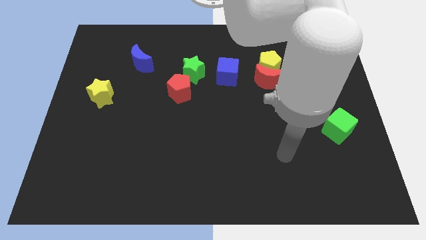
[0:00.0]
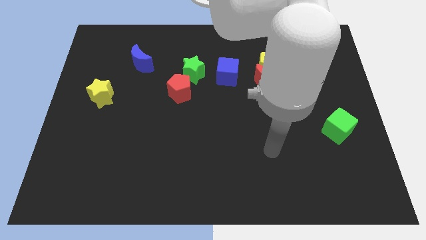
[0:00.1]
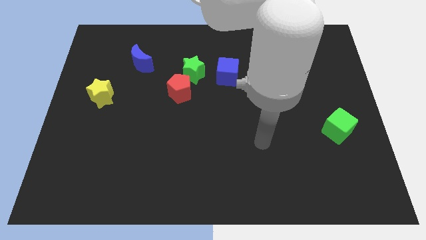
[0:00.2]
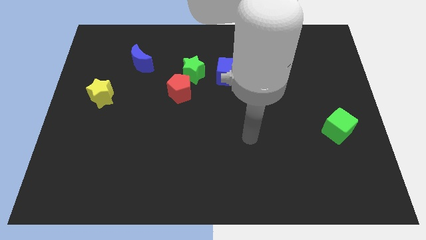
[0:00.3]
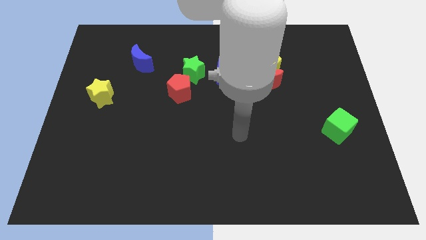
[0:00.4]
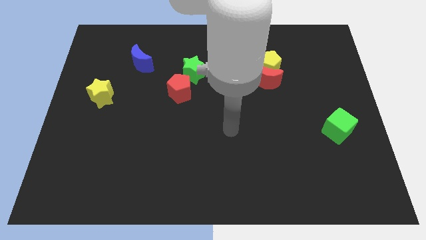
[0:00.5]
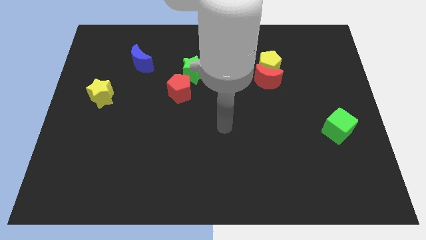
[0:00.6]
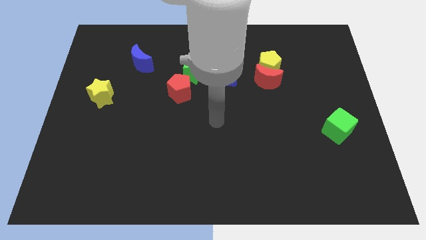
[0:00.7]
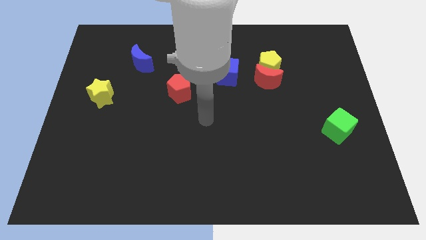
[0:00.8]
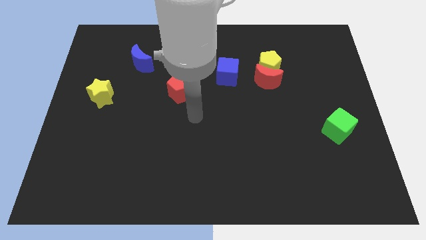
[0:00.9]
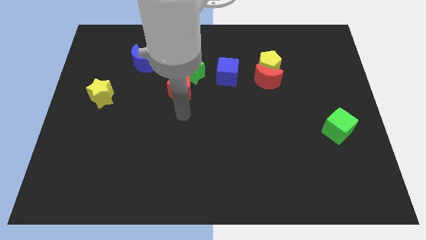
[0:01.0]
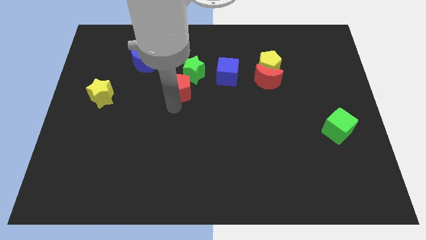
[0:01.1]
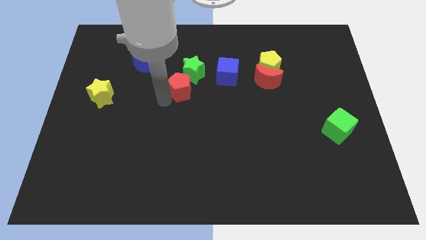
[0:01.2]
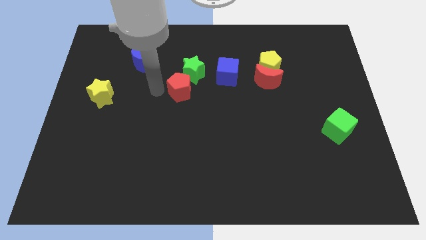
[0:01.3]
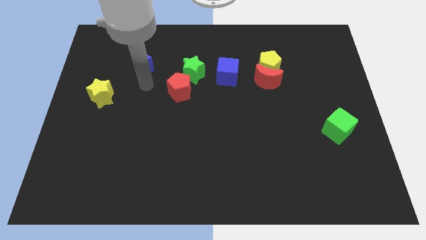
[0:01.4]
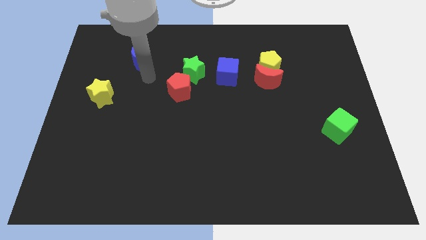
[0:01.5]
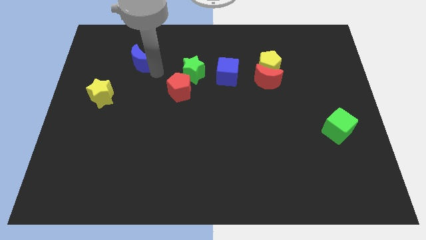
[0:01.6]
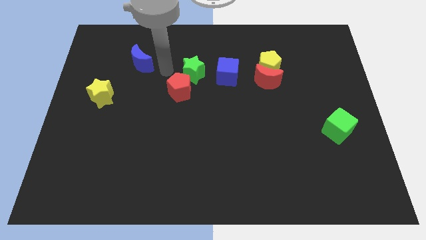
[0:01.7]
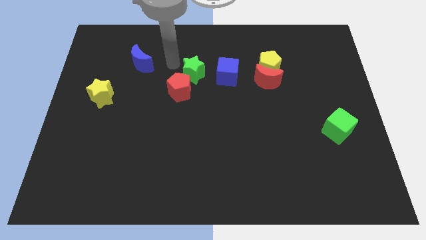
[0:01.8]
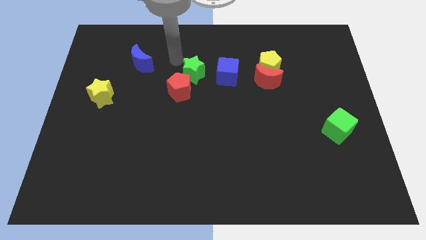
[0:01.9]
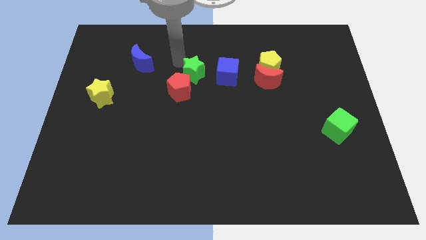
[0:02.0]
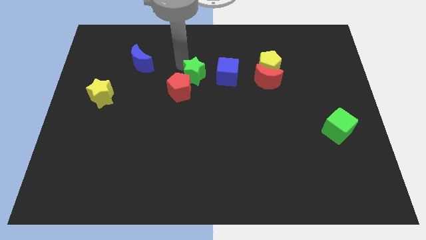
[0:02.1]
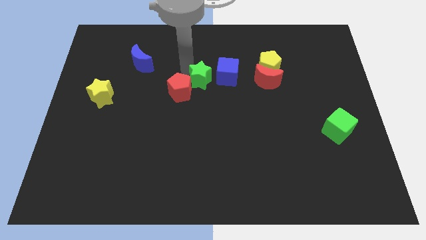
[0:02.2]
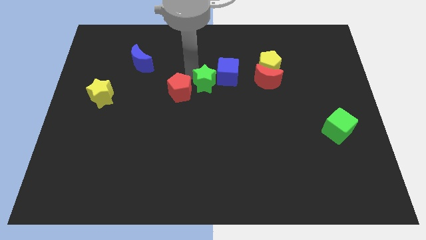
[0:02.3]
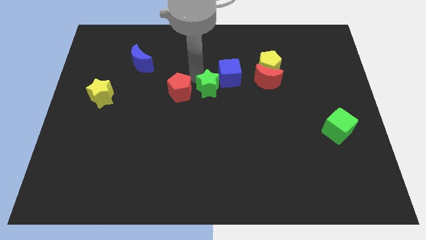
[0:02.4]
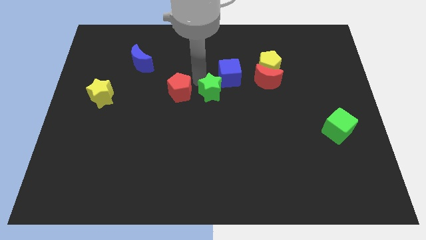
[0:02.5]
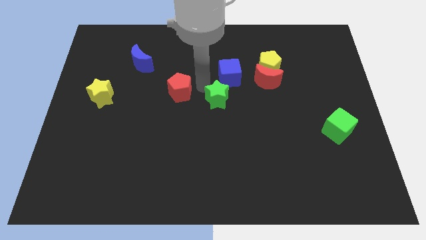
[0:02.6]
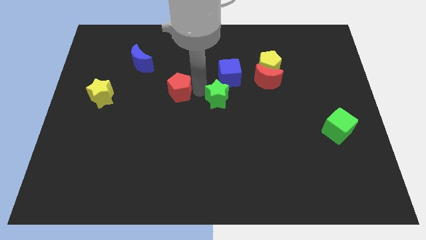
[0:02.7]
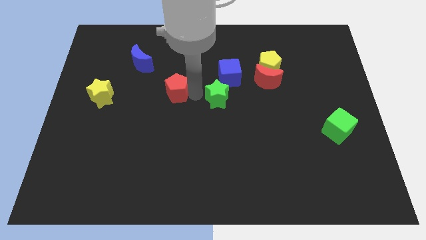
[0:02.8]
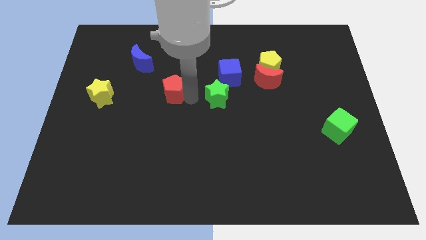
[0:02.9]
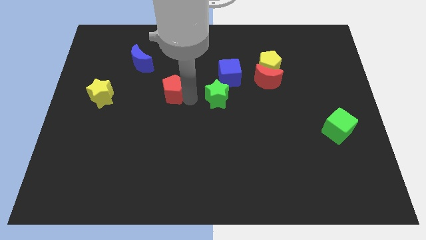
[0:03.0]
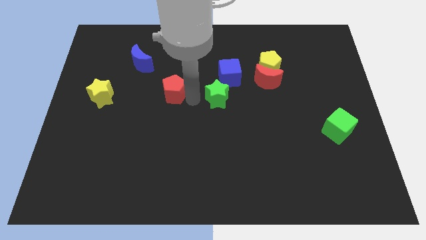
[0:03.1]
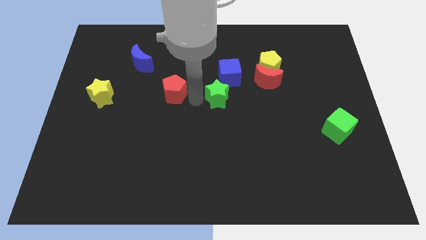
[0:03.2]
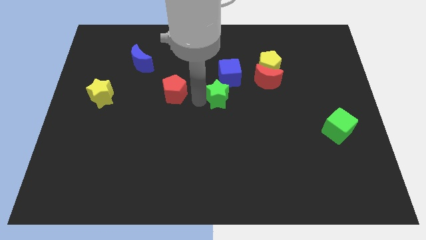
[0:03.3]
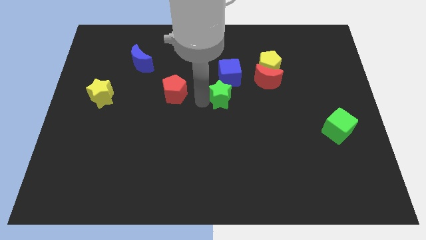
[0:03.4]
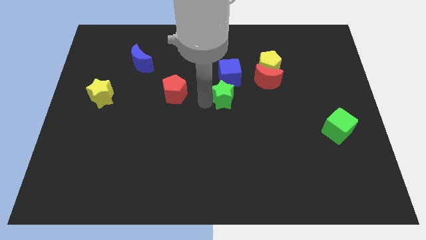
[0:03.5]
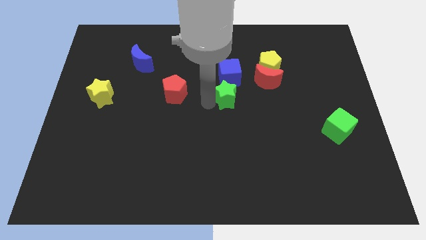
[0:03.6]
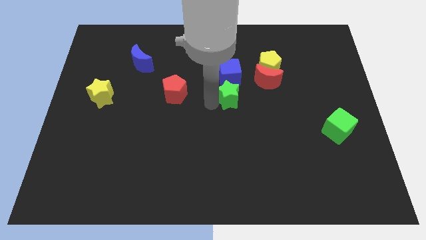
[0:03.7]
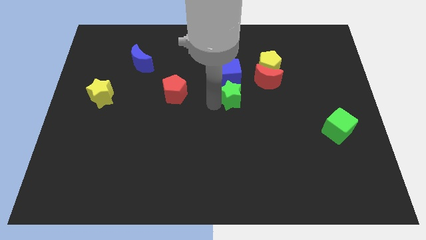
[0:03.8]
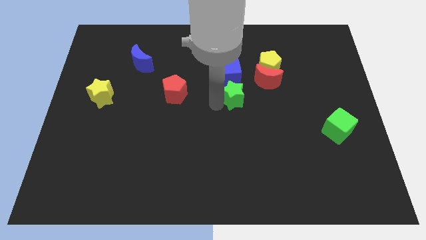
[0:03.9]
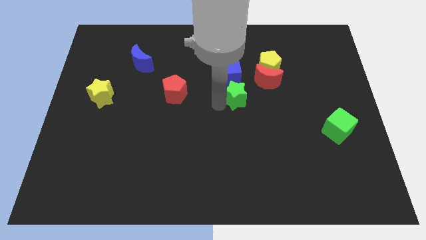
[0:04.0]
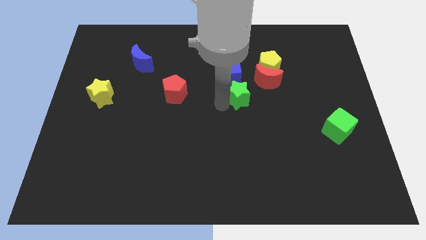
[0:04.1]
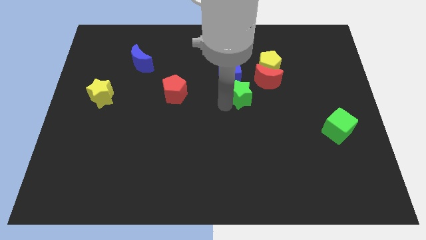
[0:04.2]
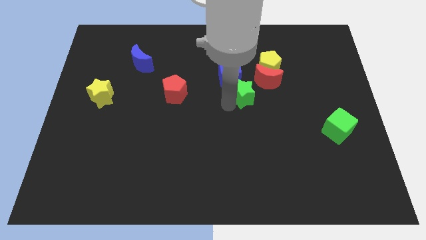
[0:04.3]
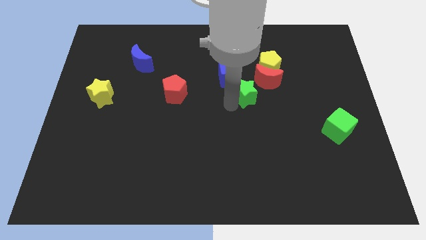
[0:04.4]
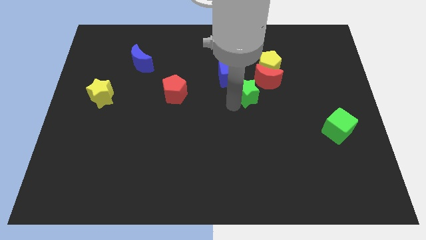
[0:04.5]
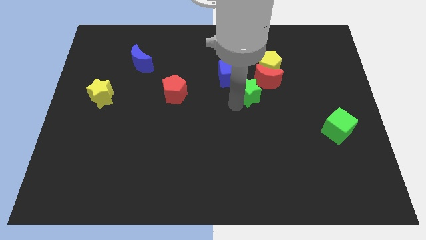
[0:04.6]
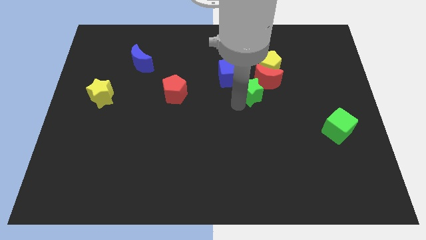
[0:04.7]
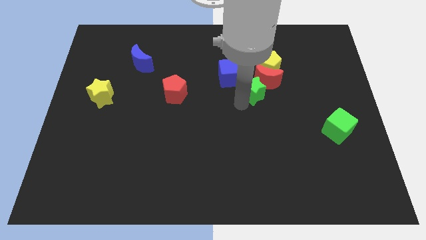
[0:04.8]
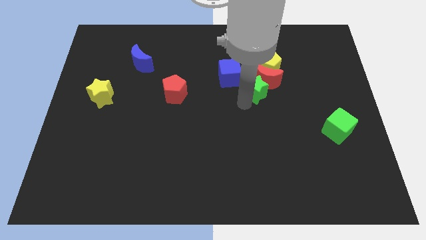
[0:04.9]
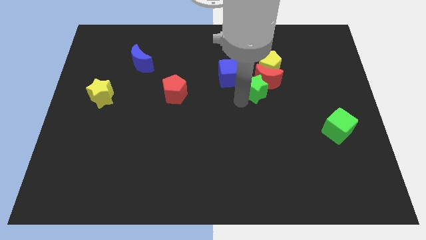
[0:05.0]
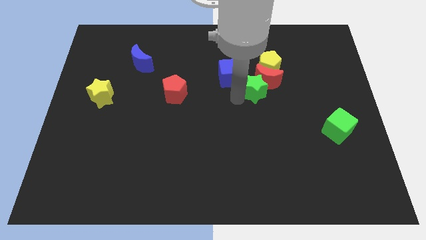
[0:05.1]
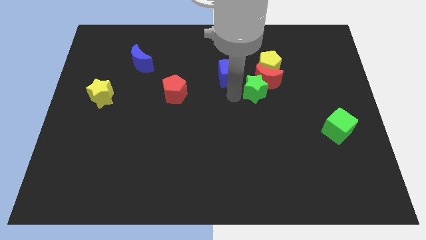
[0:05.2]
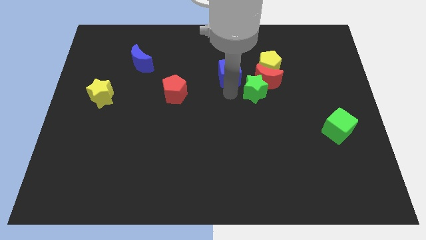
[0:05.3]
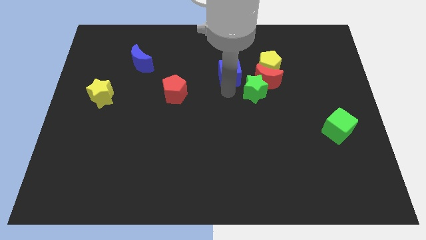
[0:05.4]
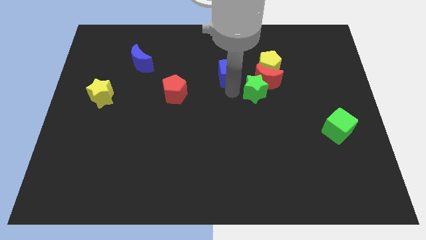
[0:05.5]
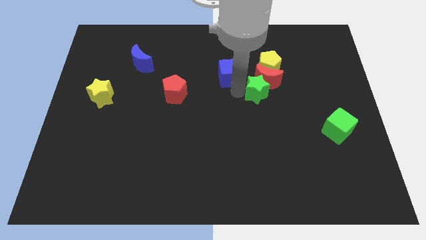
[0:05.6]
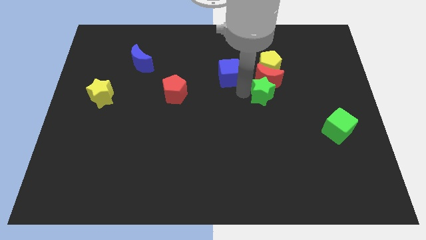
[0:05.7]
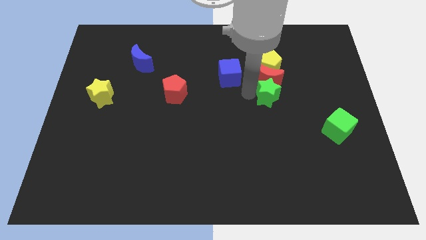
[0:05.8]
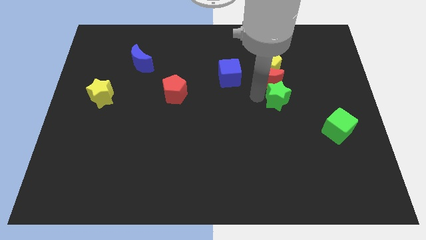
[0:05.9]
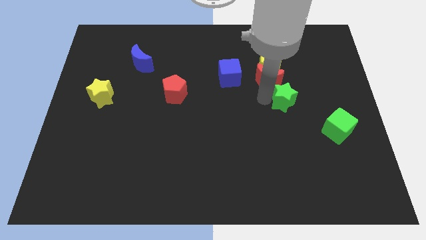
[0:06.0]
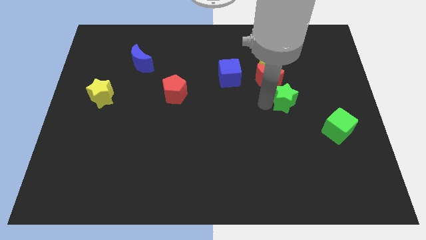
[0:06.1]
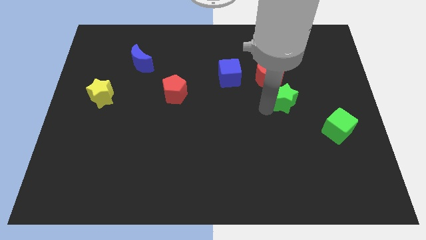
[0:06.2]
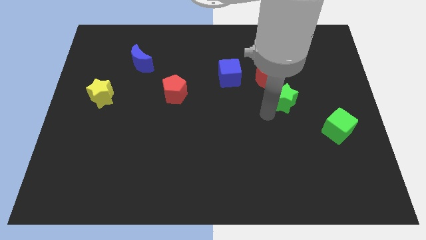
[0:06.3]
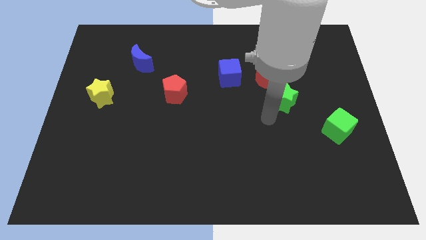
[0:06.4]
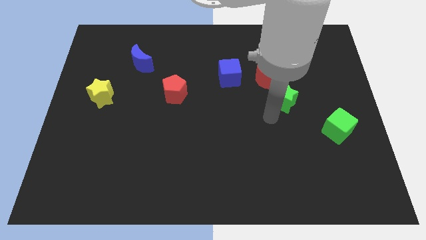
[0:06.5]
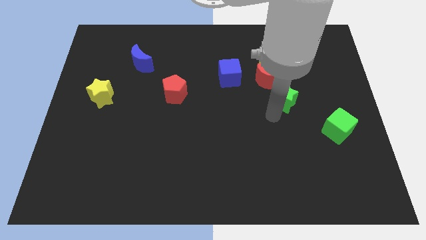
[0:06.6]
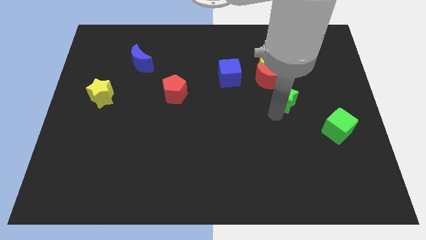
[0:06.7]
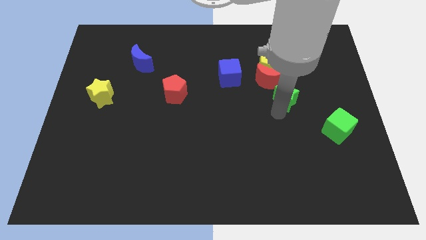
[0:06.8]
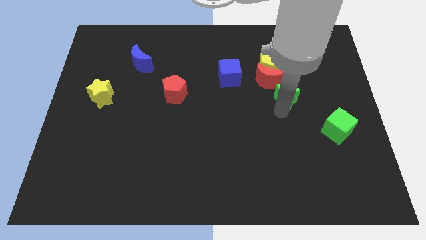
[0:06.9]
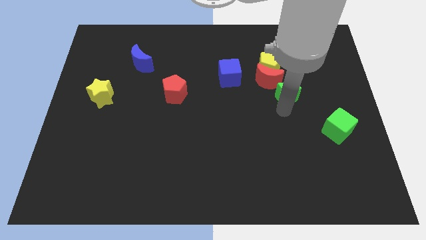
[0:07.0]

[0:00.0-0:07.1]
move the green star right

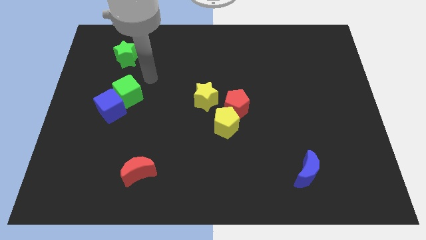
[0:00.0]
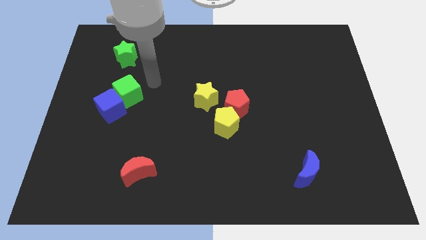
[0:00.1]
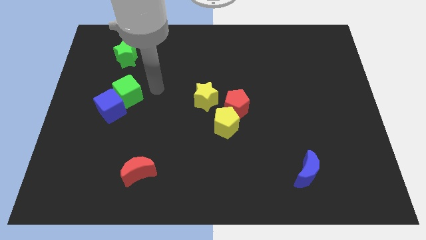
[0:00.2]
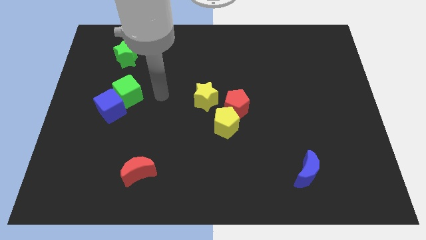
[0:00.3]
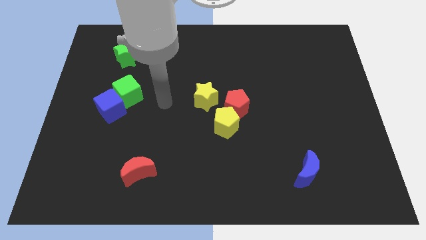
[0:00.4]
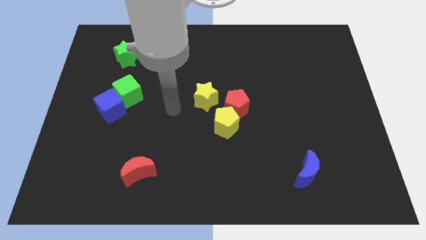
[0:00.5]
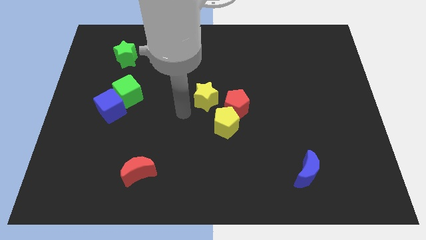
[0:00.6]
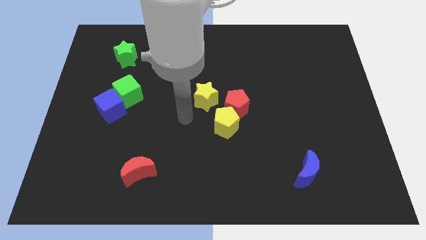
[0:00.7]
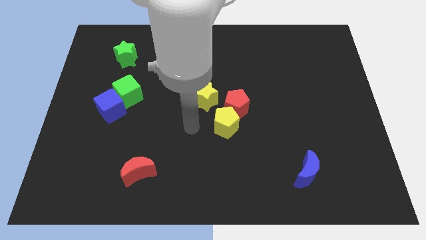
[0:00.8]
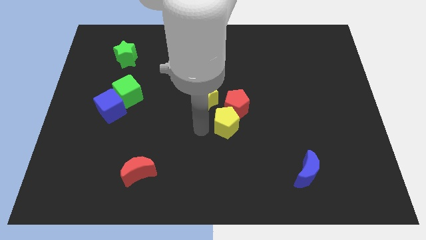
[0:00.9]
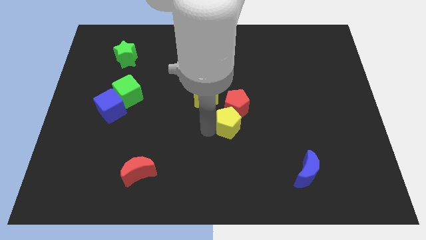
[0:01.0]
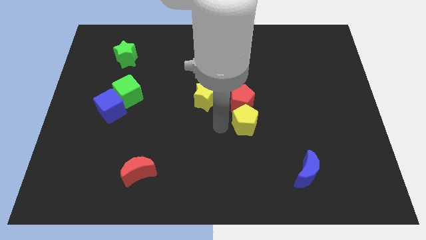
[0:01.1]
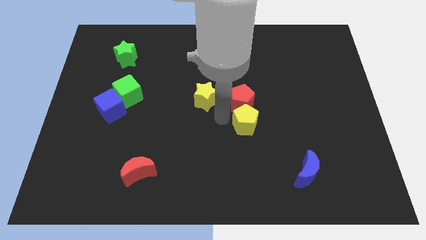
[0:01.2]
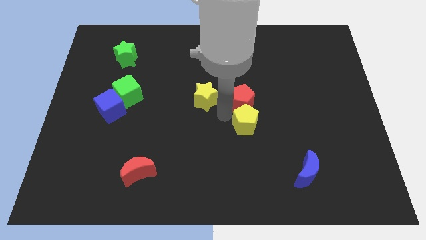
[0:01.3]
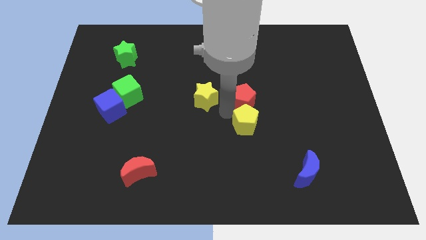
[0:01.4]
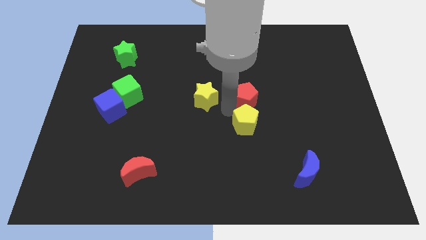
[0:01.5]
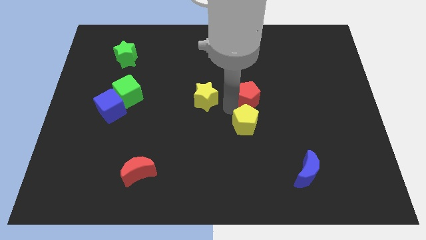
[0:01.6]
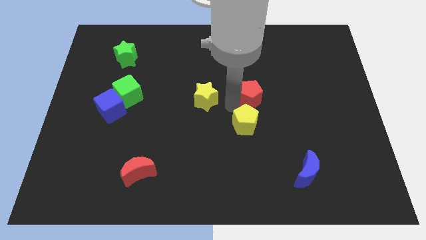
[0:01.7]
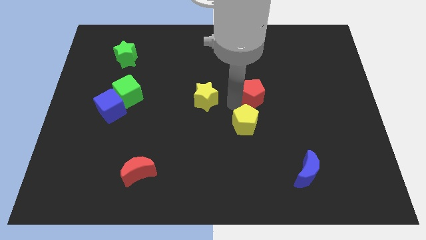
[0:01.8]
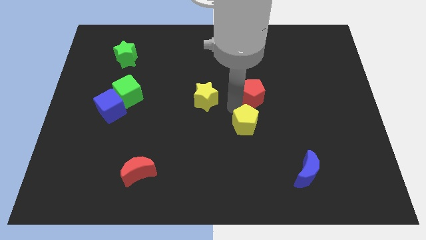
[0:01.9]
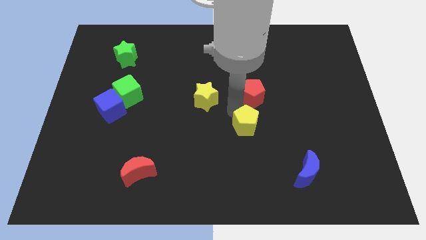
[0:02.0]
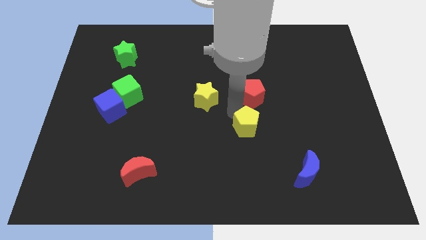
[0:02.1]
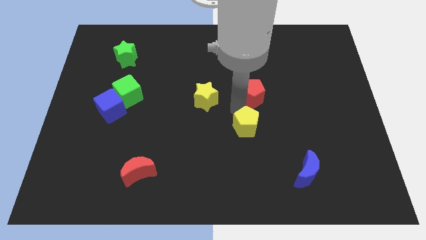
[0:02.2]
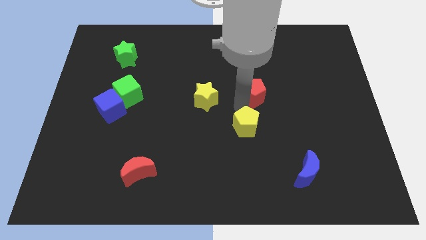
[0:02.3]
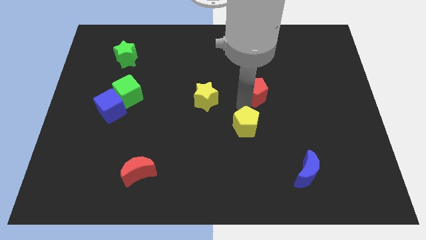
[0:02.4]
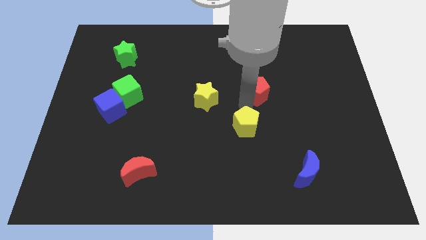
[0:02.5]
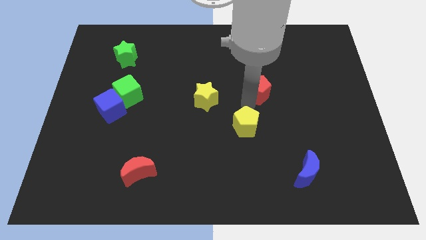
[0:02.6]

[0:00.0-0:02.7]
slide the red pentagon a bit up and then right
